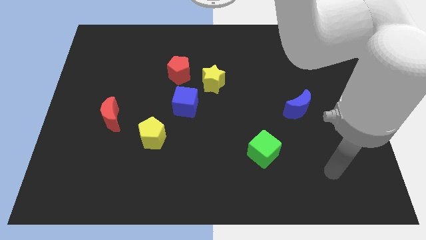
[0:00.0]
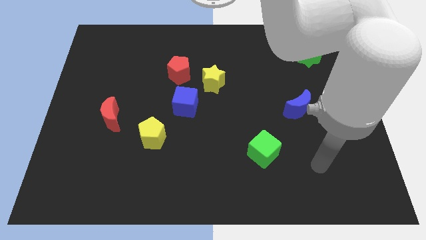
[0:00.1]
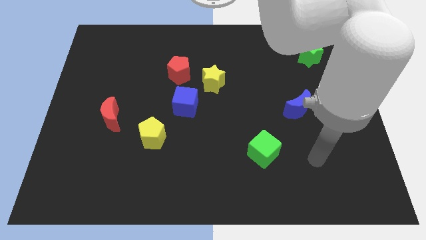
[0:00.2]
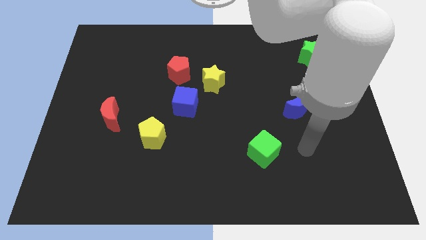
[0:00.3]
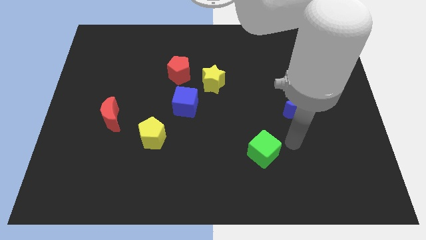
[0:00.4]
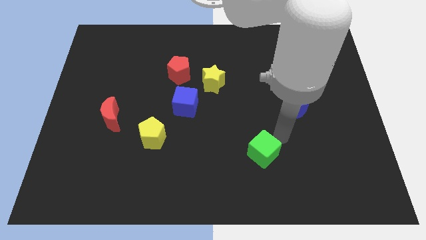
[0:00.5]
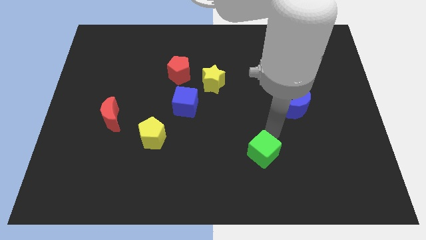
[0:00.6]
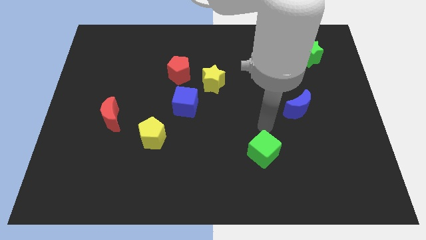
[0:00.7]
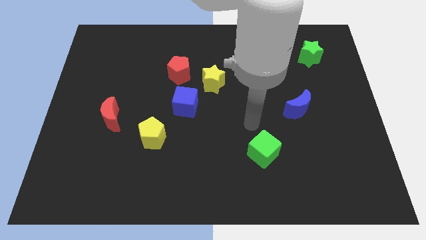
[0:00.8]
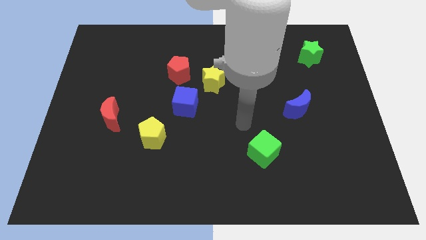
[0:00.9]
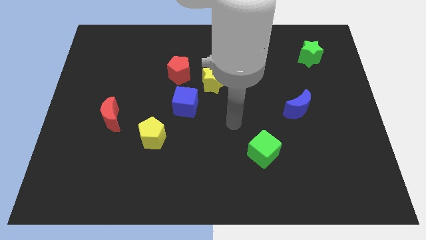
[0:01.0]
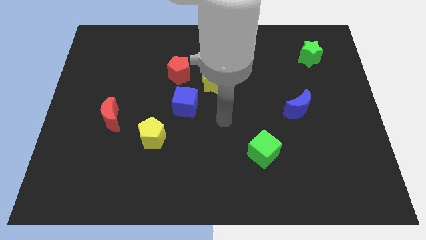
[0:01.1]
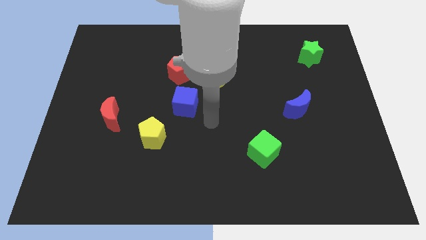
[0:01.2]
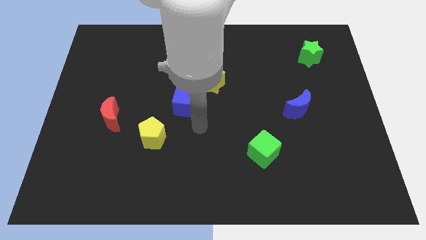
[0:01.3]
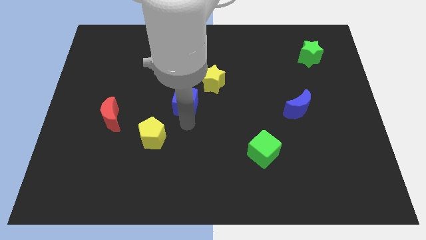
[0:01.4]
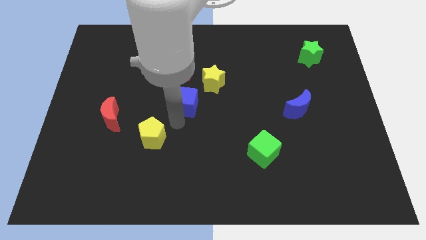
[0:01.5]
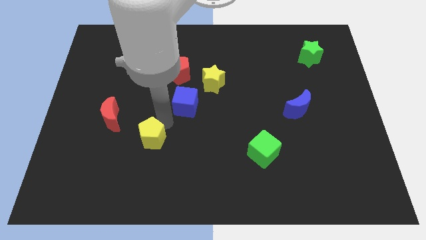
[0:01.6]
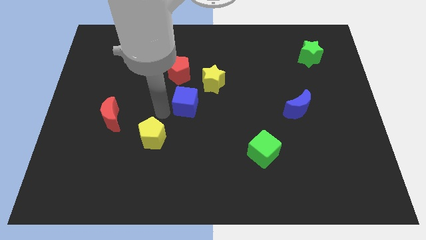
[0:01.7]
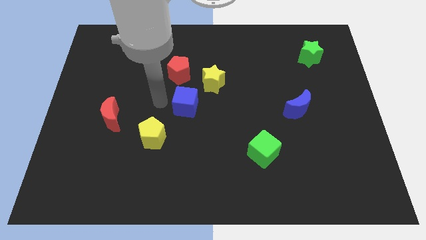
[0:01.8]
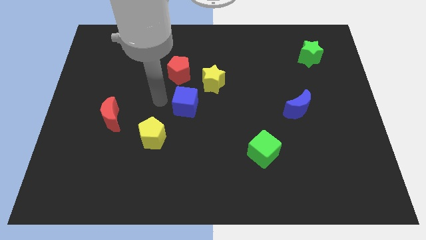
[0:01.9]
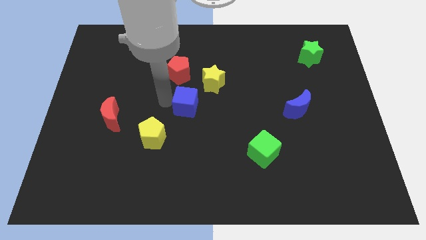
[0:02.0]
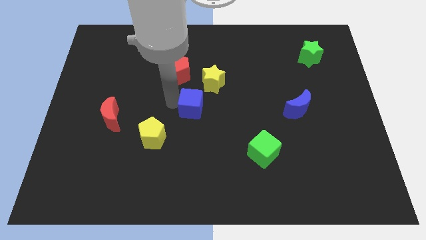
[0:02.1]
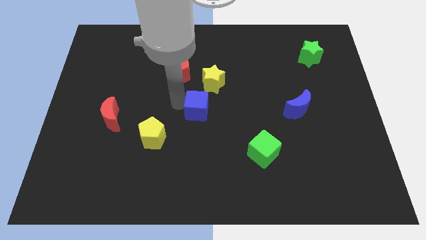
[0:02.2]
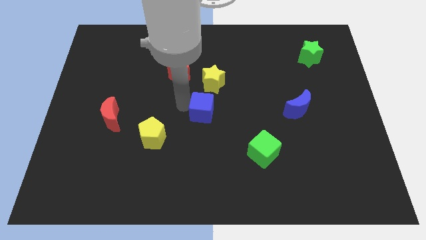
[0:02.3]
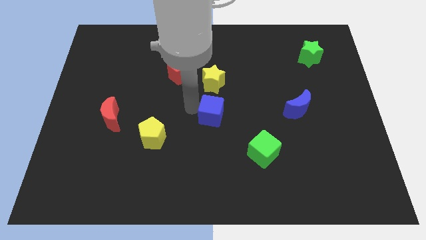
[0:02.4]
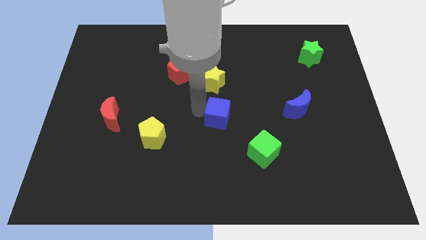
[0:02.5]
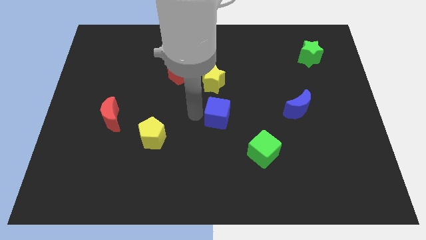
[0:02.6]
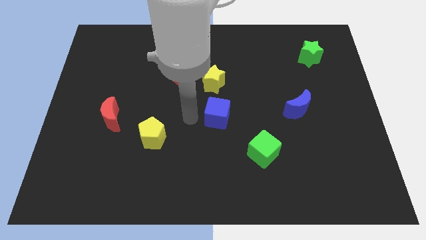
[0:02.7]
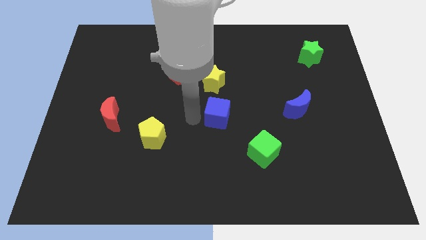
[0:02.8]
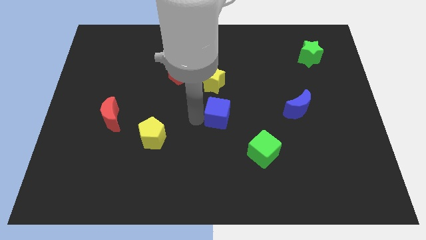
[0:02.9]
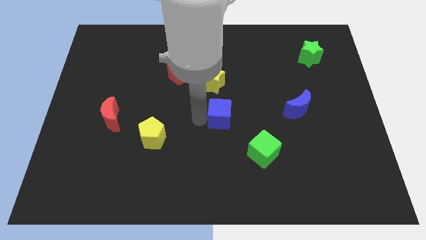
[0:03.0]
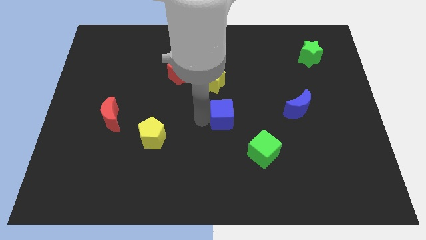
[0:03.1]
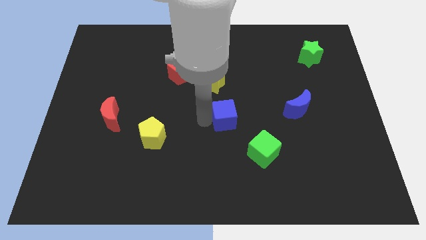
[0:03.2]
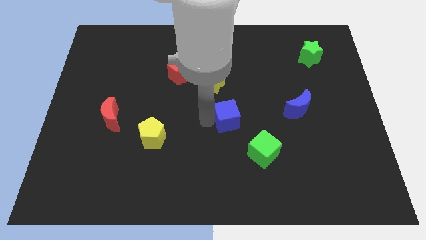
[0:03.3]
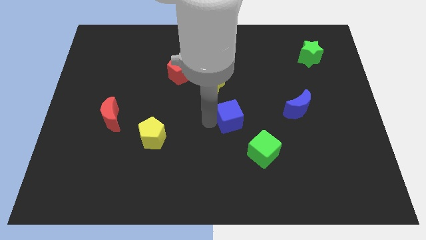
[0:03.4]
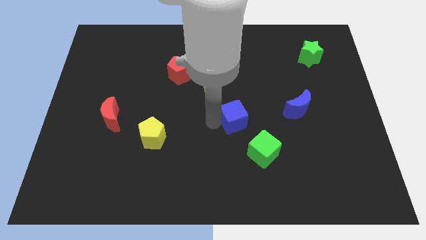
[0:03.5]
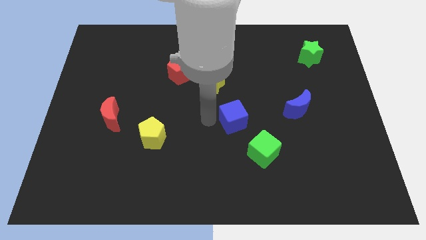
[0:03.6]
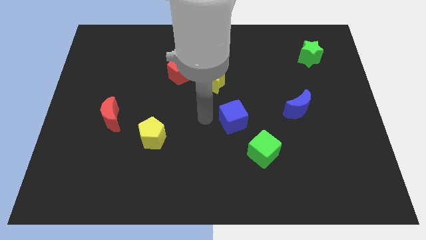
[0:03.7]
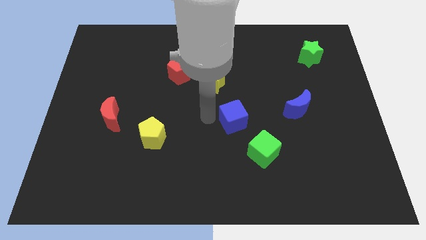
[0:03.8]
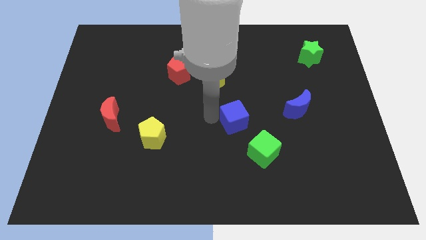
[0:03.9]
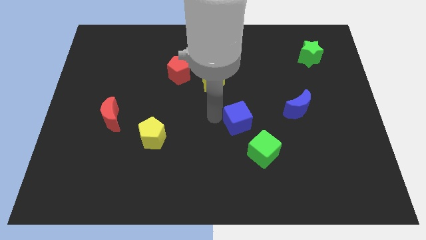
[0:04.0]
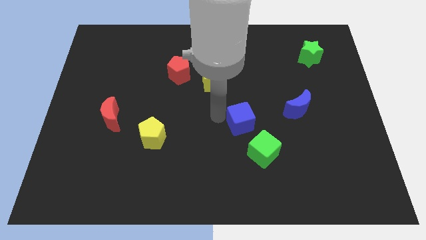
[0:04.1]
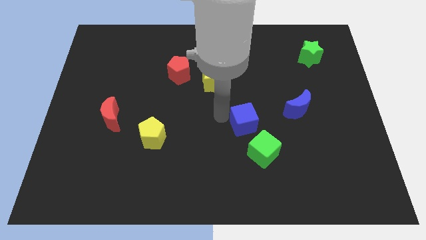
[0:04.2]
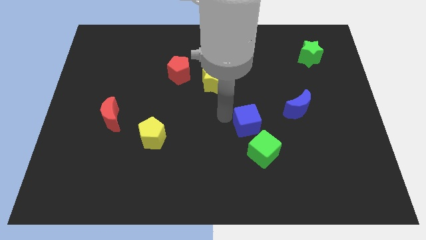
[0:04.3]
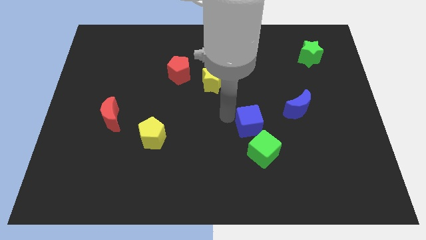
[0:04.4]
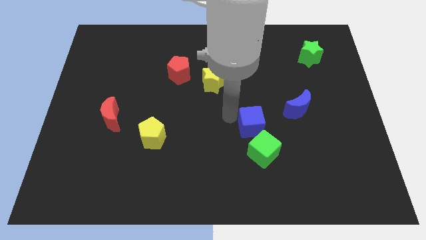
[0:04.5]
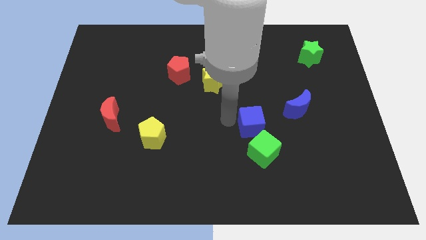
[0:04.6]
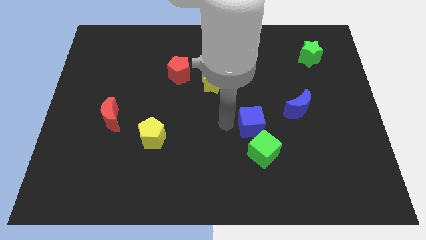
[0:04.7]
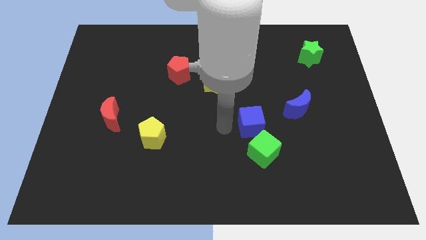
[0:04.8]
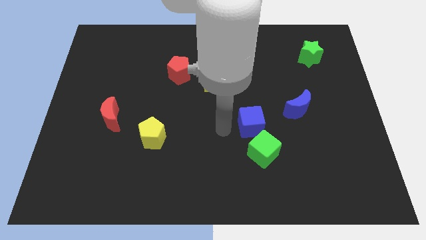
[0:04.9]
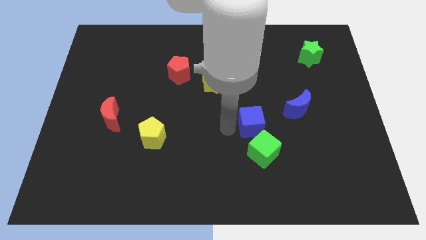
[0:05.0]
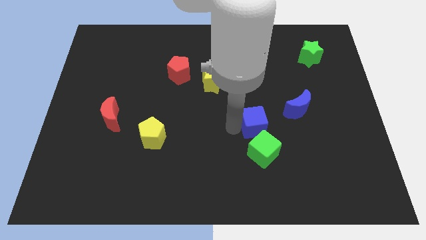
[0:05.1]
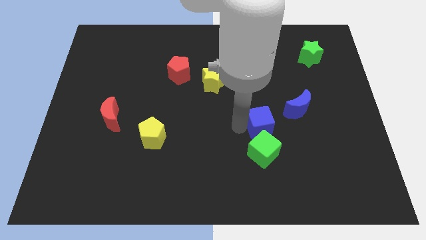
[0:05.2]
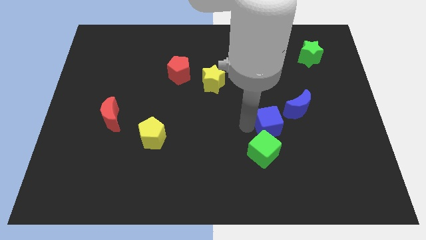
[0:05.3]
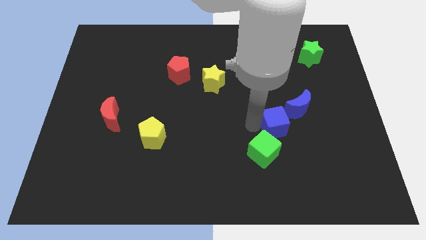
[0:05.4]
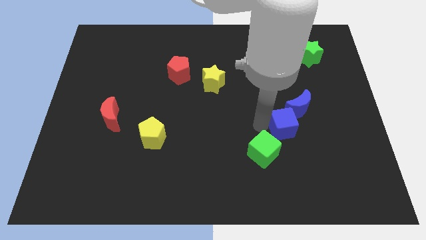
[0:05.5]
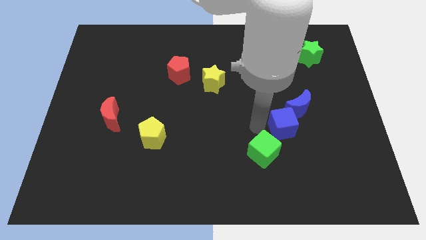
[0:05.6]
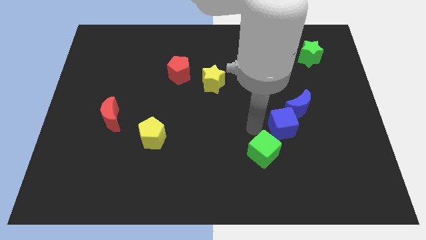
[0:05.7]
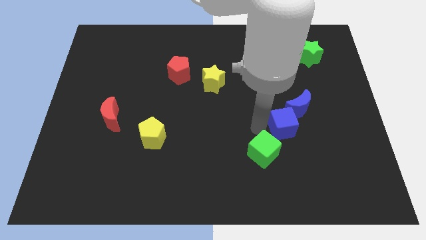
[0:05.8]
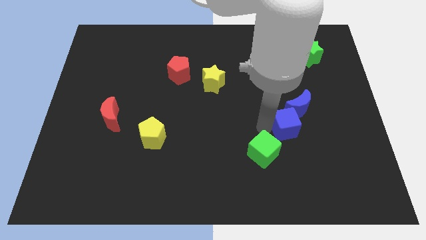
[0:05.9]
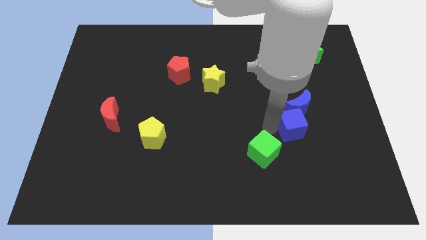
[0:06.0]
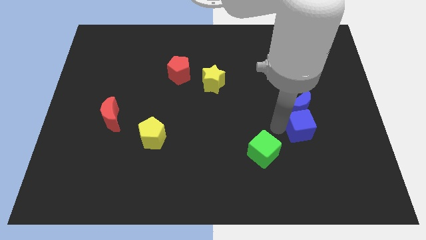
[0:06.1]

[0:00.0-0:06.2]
push the blue cube to the bottom right of the blue moon
